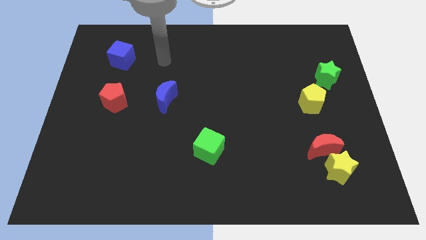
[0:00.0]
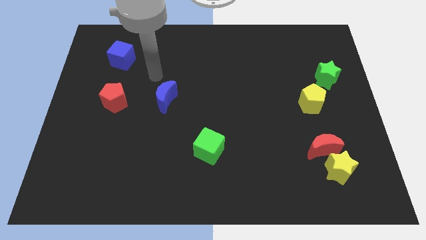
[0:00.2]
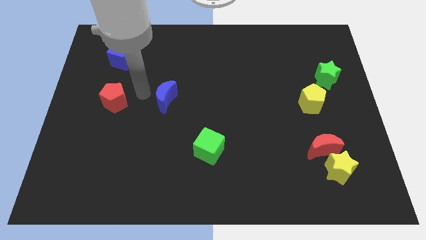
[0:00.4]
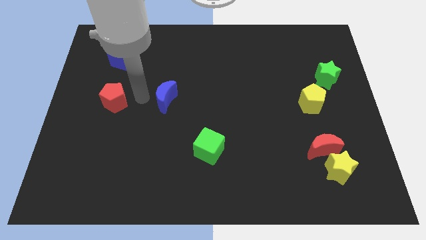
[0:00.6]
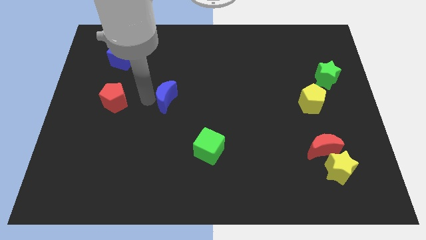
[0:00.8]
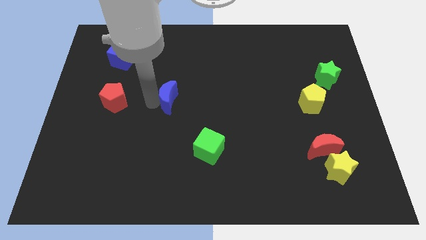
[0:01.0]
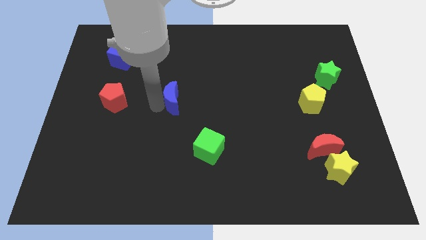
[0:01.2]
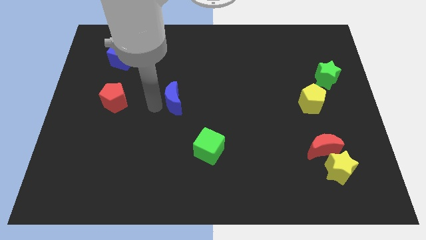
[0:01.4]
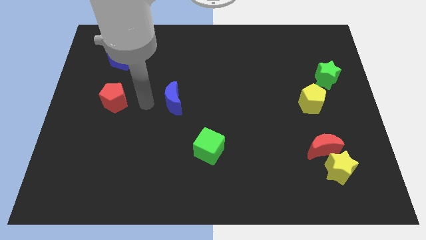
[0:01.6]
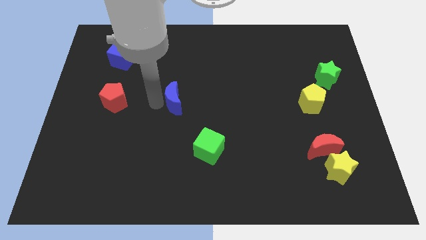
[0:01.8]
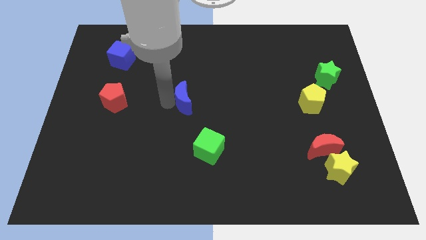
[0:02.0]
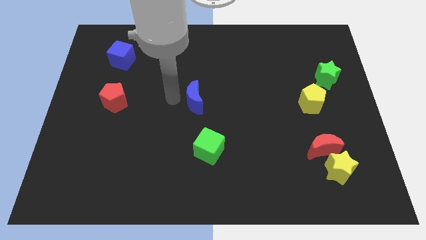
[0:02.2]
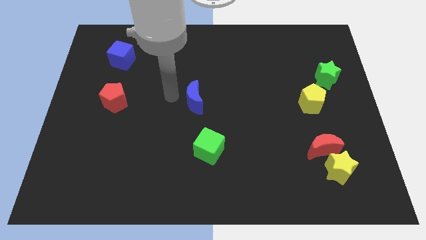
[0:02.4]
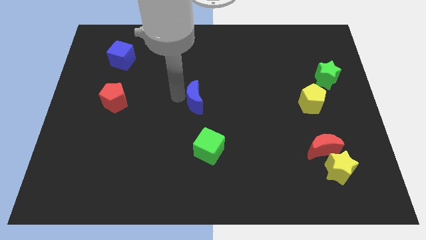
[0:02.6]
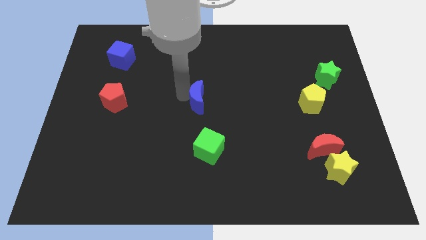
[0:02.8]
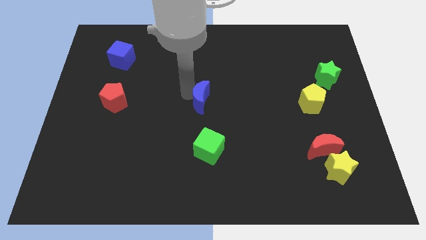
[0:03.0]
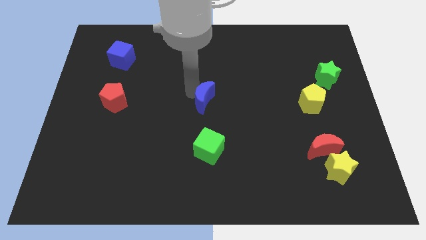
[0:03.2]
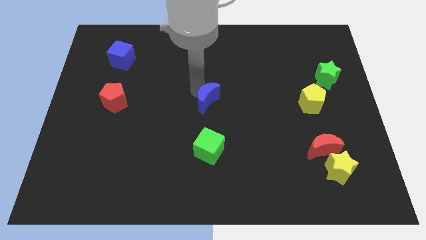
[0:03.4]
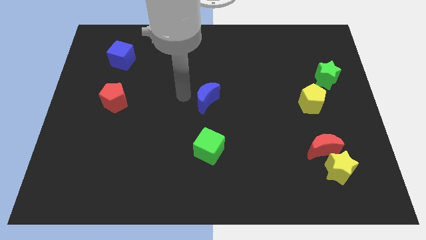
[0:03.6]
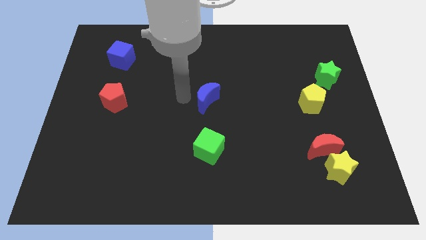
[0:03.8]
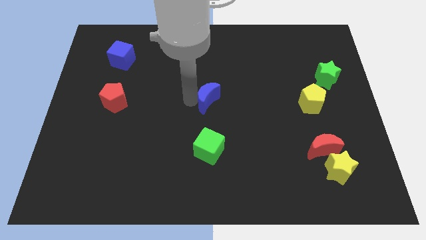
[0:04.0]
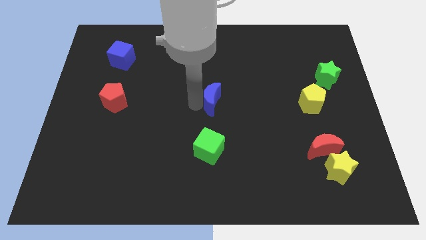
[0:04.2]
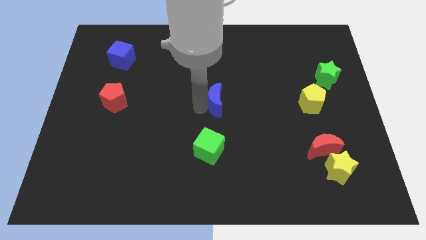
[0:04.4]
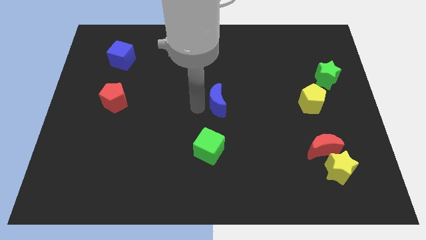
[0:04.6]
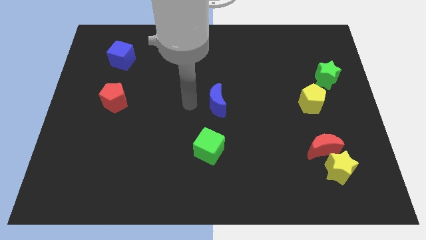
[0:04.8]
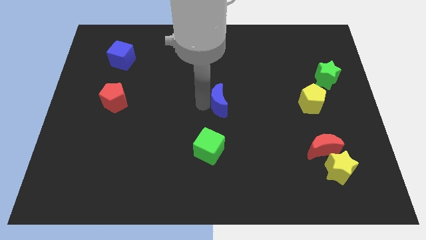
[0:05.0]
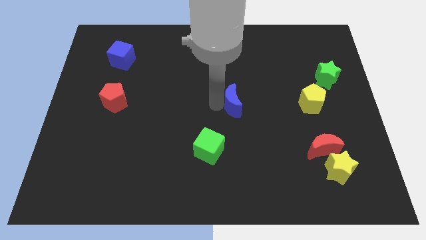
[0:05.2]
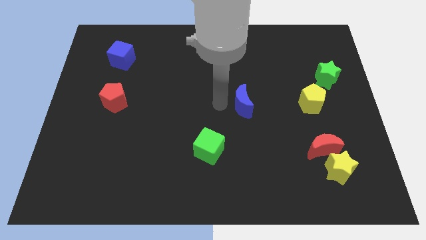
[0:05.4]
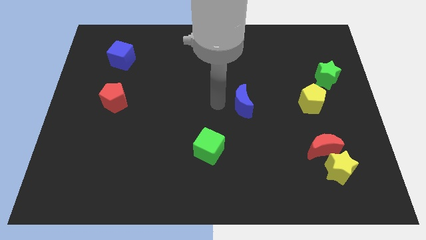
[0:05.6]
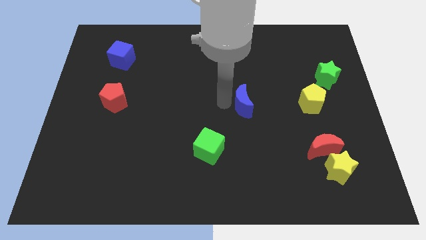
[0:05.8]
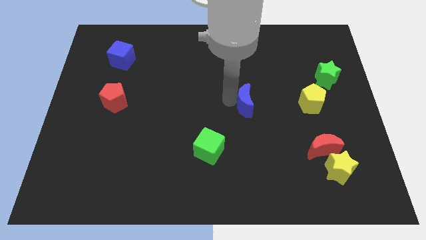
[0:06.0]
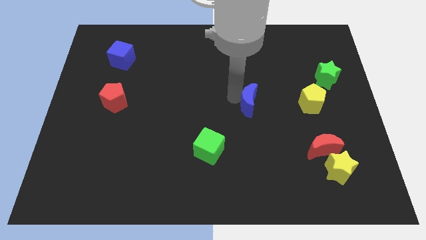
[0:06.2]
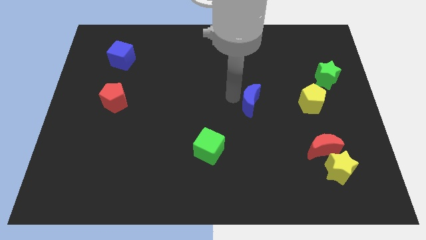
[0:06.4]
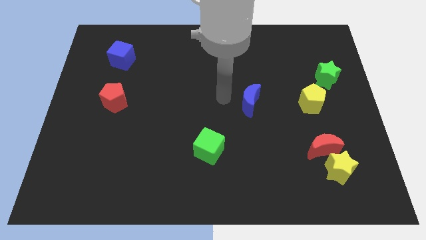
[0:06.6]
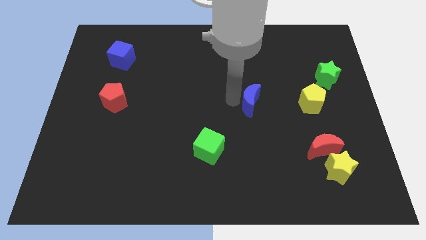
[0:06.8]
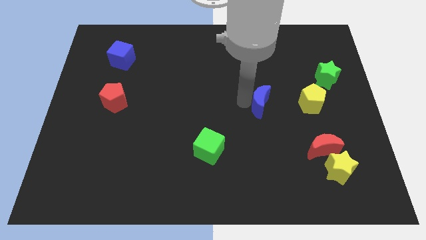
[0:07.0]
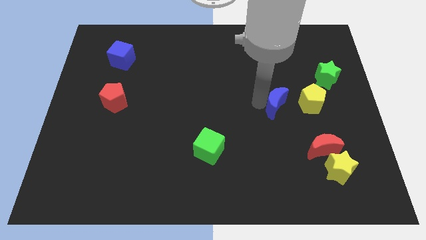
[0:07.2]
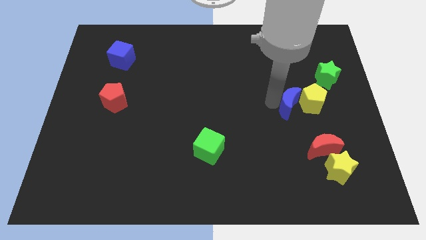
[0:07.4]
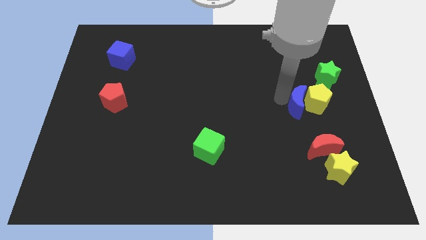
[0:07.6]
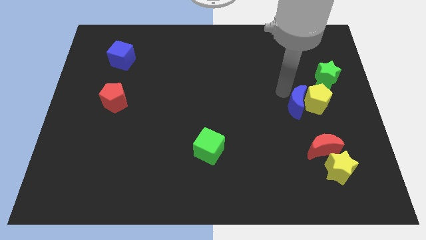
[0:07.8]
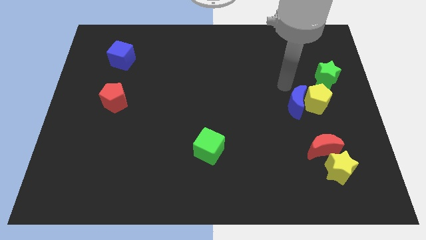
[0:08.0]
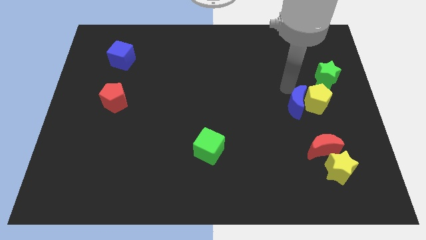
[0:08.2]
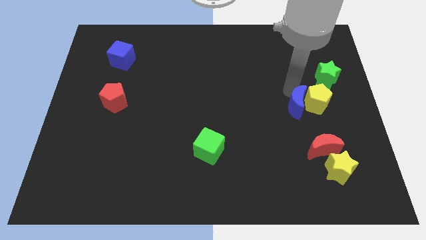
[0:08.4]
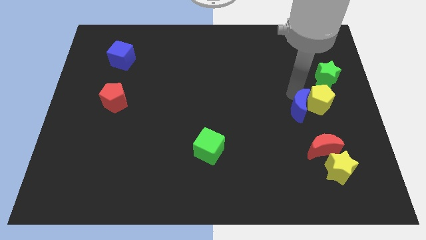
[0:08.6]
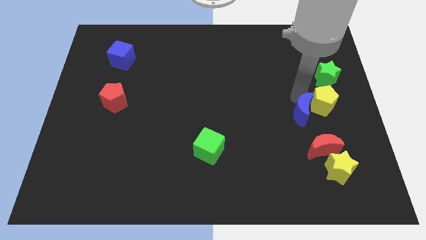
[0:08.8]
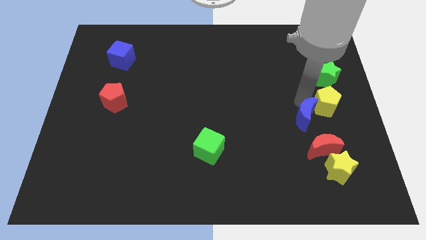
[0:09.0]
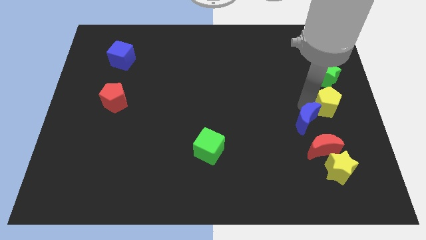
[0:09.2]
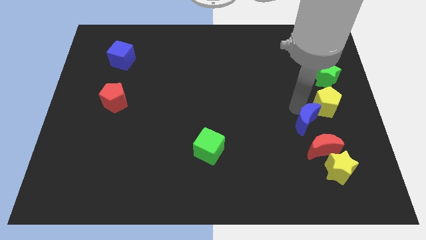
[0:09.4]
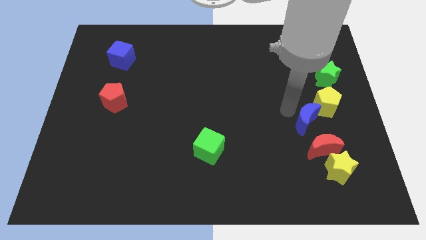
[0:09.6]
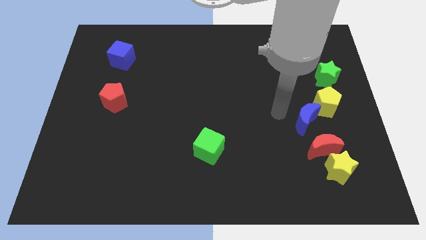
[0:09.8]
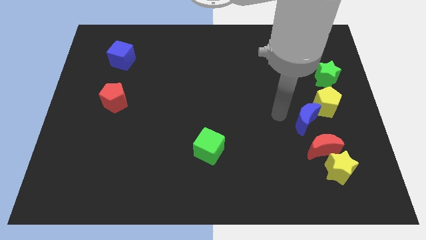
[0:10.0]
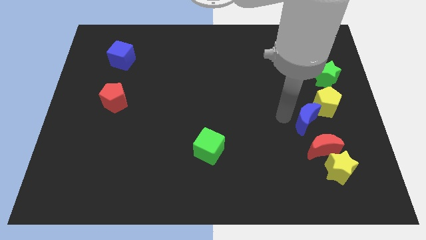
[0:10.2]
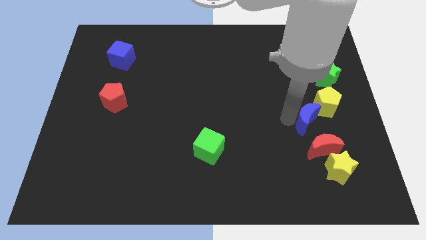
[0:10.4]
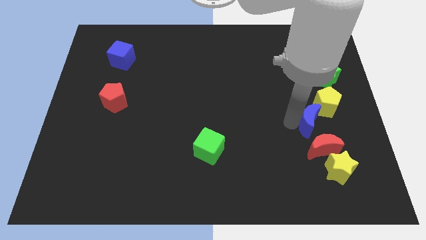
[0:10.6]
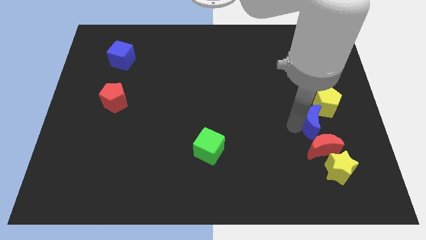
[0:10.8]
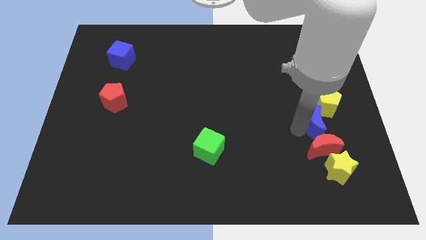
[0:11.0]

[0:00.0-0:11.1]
move the blue moon to the top right of the red moon

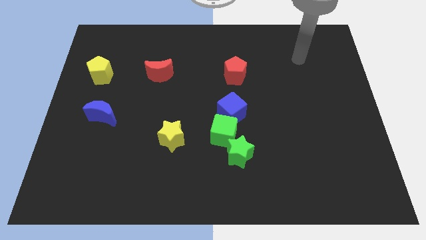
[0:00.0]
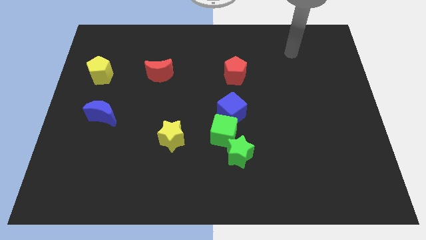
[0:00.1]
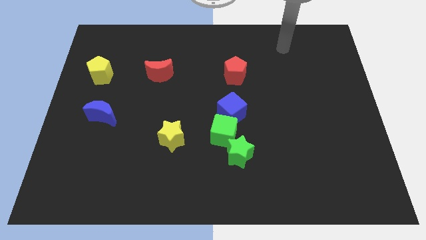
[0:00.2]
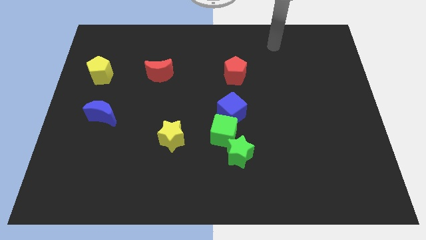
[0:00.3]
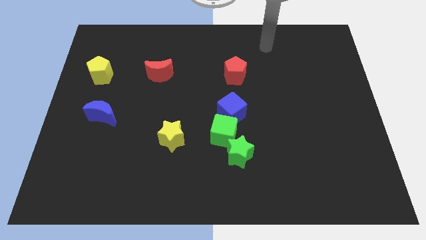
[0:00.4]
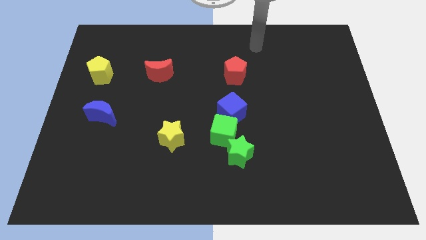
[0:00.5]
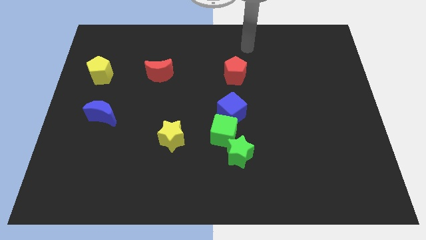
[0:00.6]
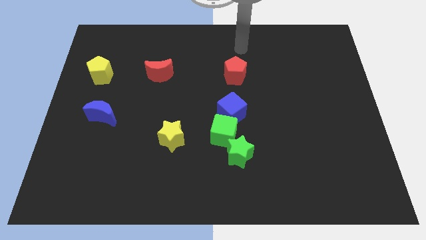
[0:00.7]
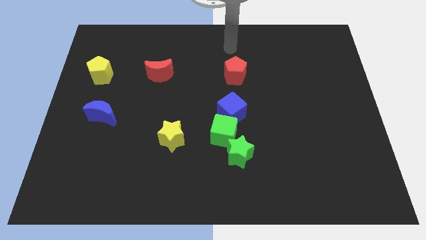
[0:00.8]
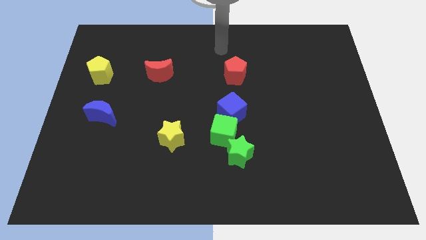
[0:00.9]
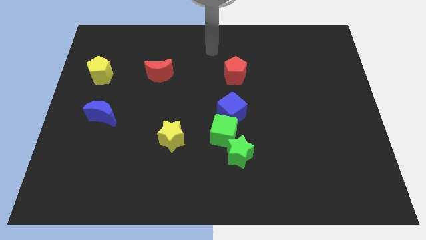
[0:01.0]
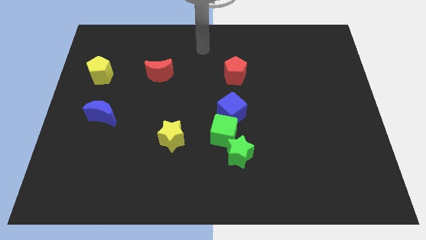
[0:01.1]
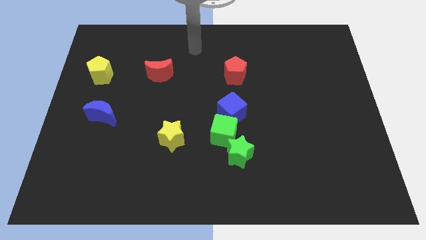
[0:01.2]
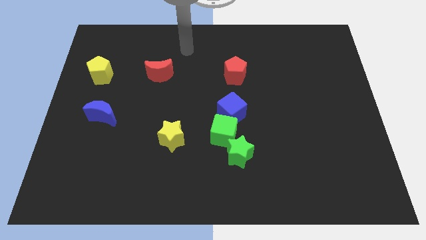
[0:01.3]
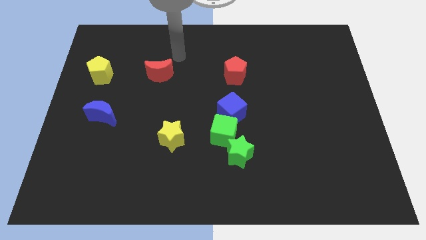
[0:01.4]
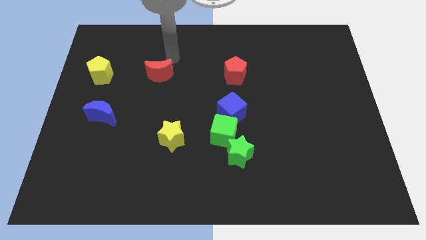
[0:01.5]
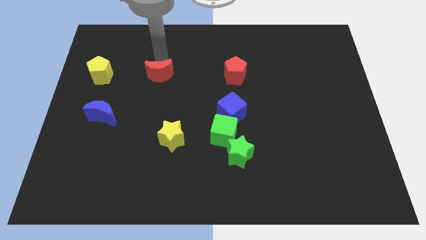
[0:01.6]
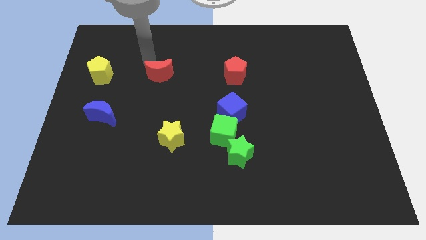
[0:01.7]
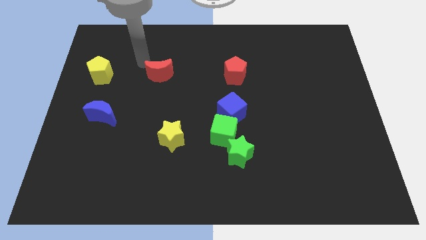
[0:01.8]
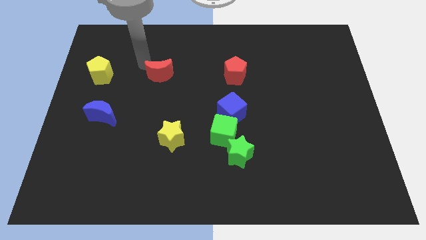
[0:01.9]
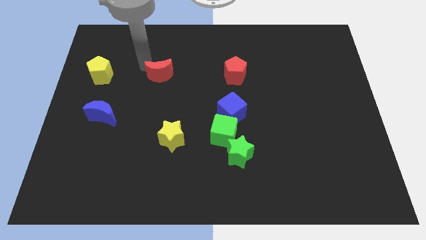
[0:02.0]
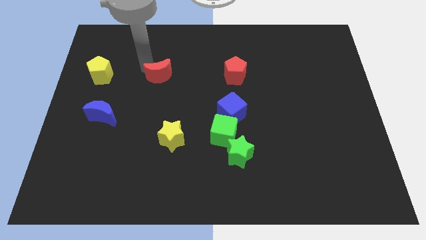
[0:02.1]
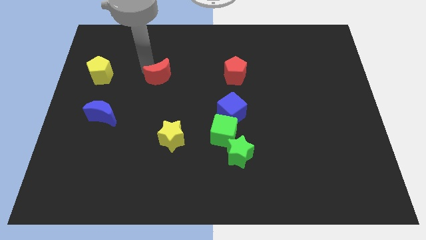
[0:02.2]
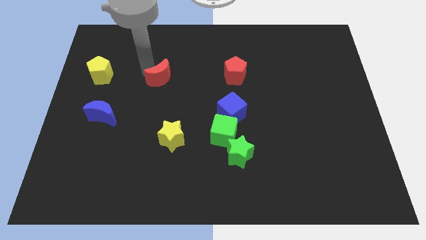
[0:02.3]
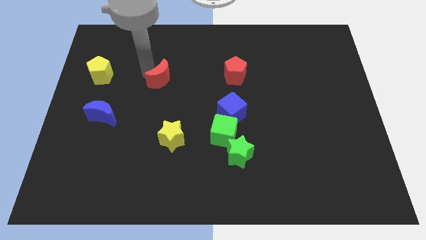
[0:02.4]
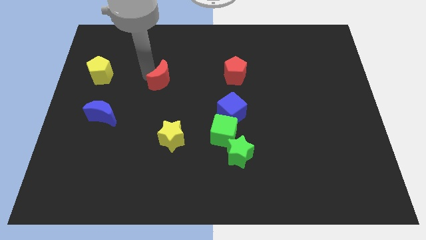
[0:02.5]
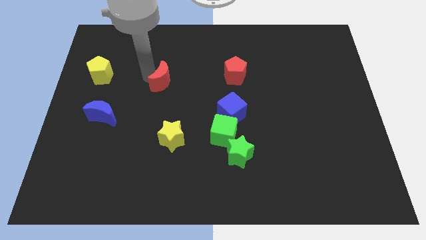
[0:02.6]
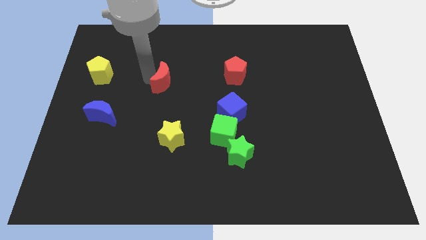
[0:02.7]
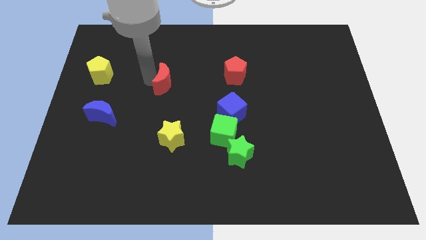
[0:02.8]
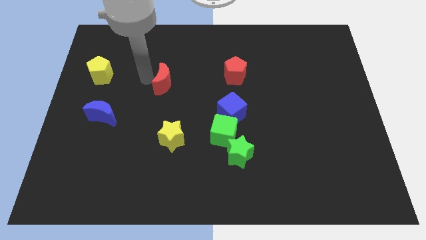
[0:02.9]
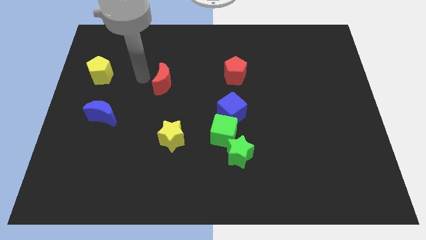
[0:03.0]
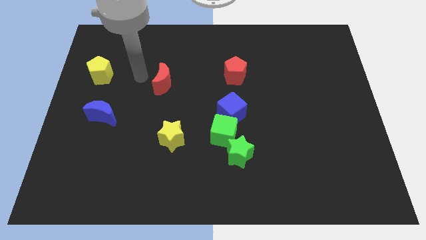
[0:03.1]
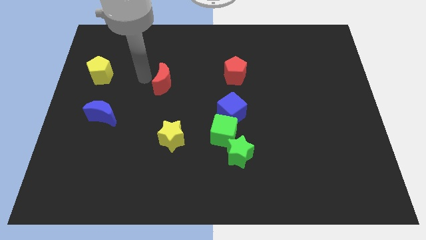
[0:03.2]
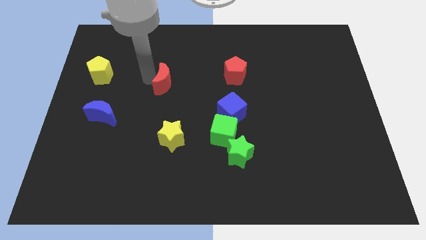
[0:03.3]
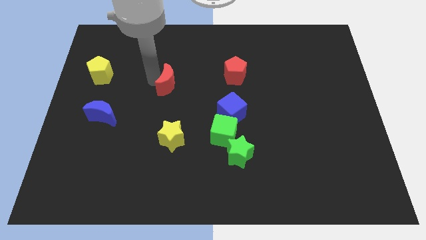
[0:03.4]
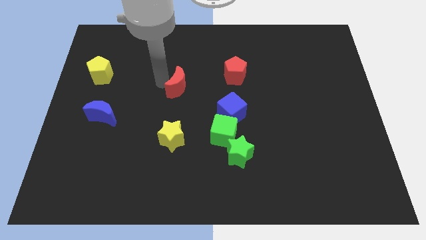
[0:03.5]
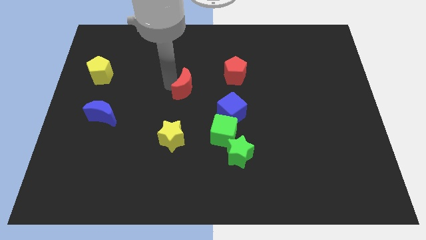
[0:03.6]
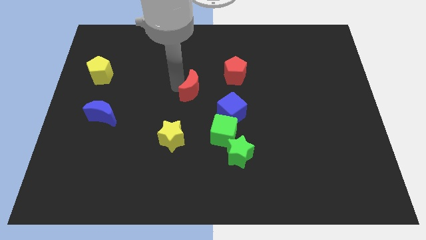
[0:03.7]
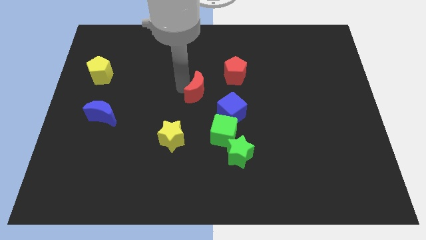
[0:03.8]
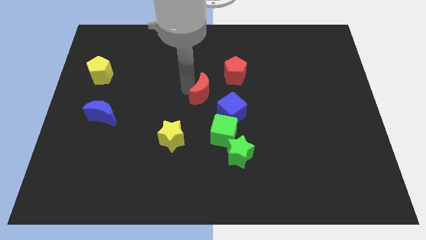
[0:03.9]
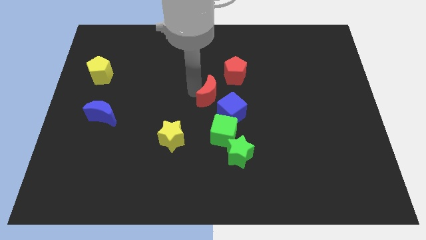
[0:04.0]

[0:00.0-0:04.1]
slide the red moon above the green cube
